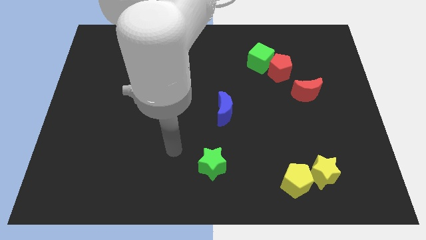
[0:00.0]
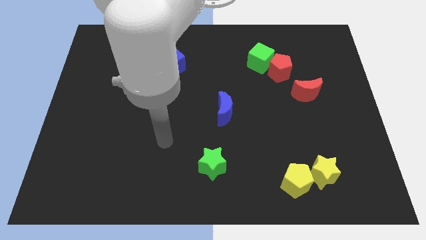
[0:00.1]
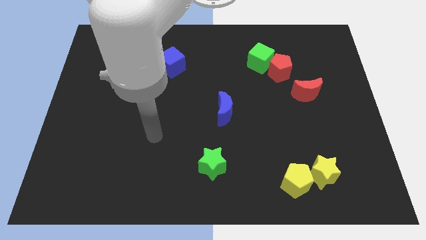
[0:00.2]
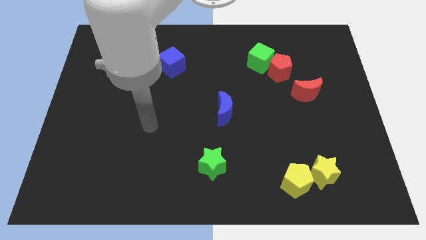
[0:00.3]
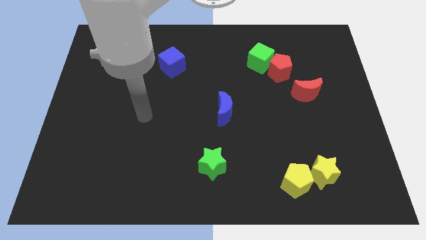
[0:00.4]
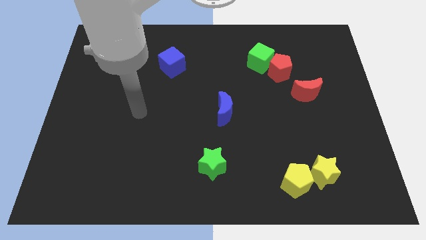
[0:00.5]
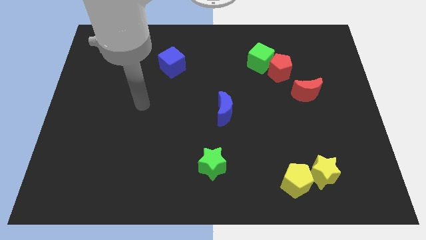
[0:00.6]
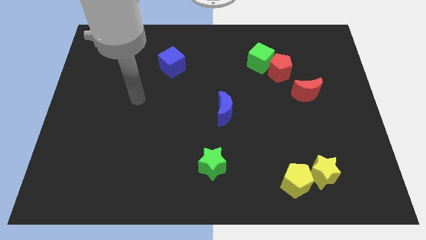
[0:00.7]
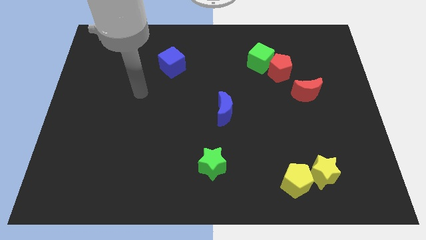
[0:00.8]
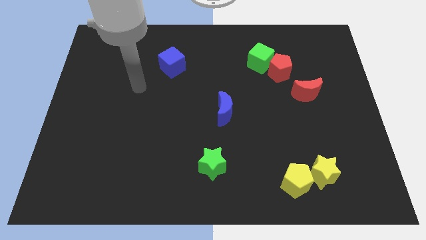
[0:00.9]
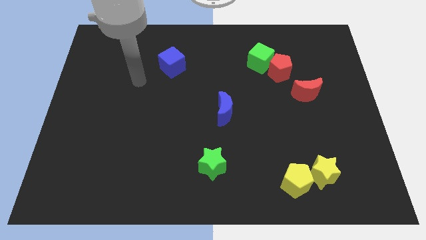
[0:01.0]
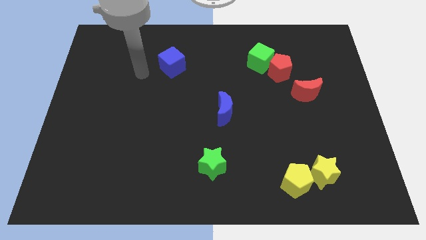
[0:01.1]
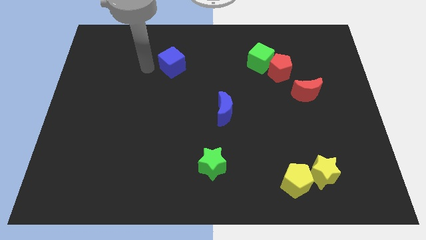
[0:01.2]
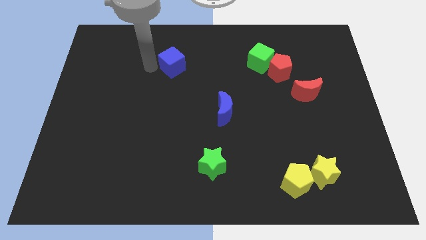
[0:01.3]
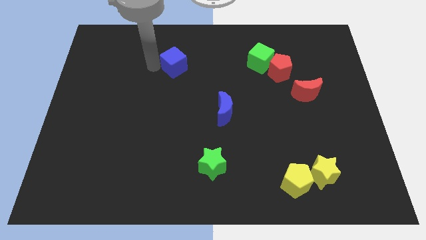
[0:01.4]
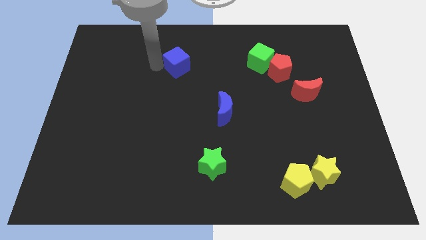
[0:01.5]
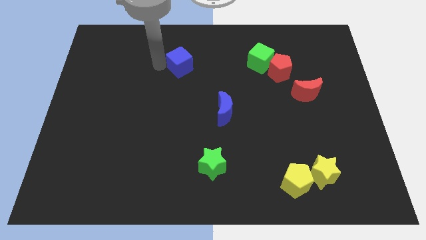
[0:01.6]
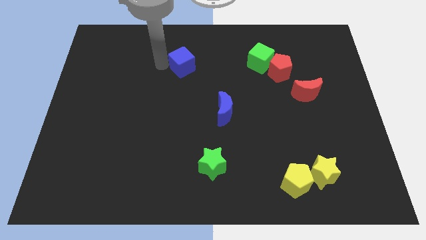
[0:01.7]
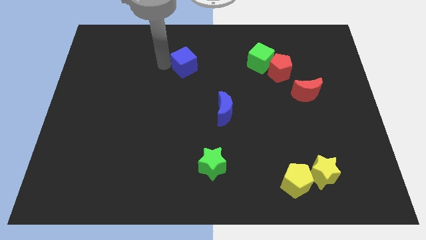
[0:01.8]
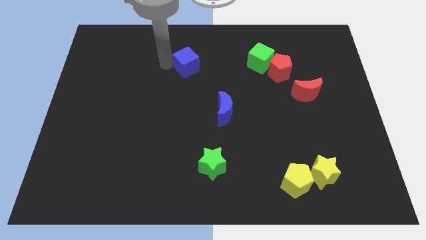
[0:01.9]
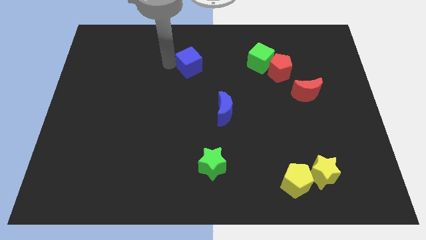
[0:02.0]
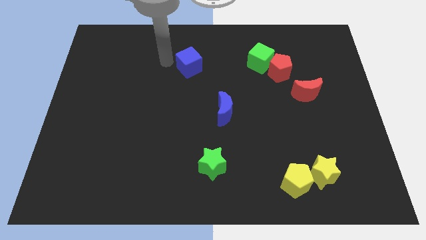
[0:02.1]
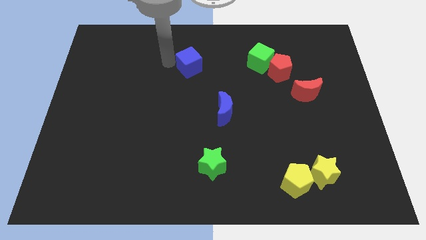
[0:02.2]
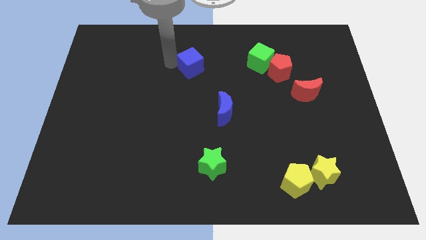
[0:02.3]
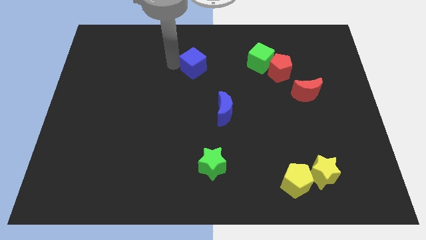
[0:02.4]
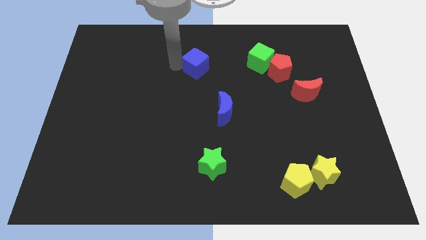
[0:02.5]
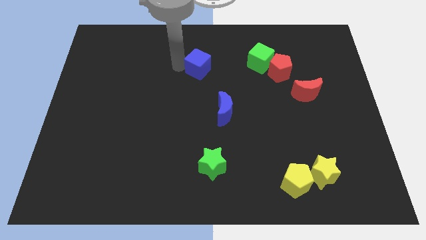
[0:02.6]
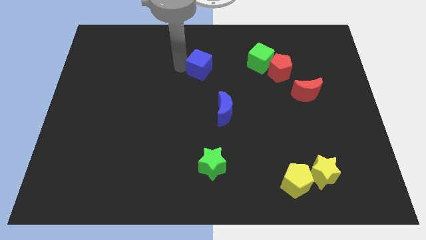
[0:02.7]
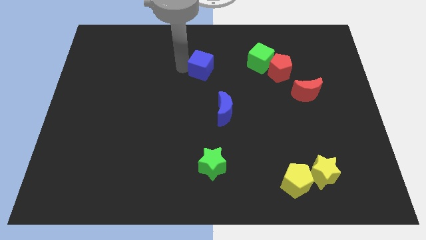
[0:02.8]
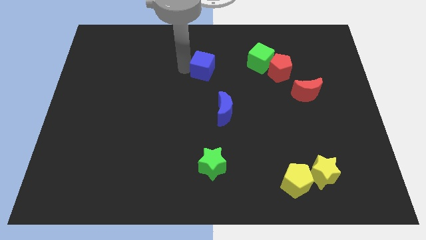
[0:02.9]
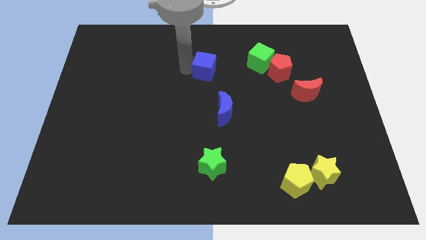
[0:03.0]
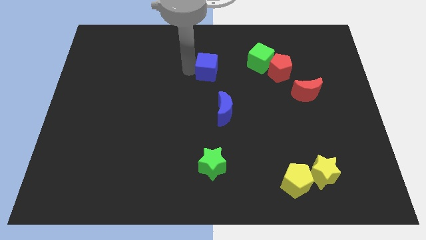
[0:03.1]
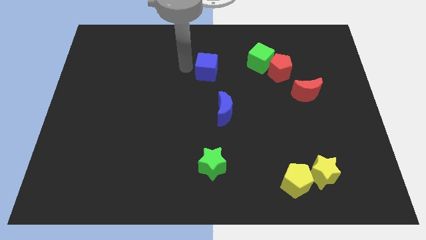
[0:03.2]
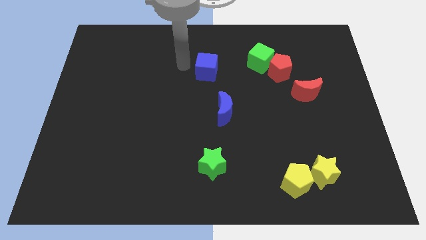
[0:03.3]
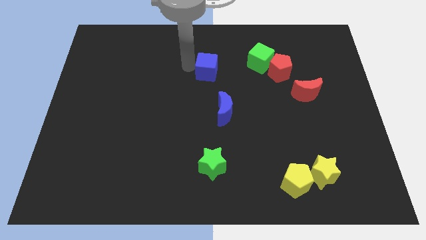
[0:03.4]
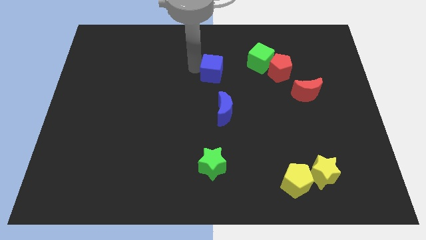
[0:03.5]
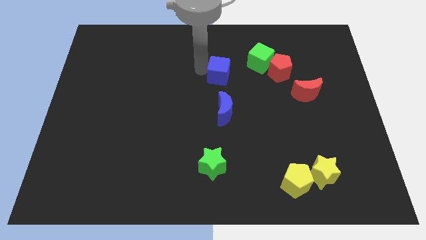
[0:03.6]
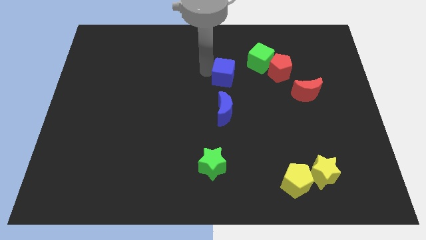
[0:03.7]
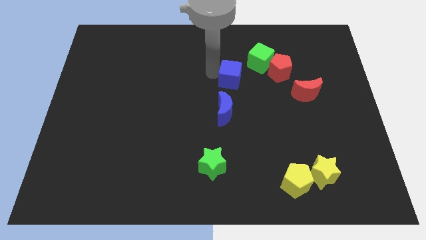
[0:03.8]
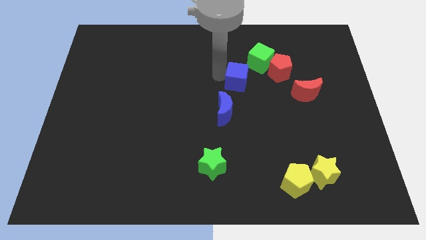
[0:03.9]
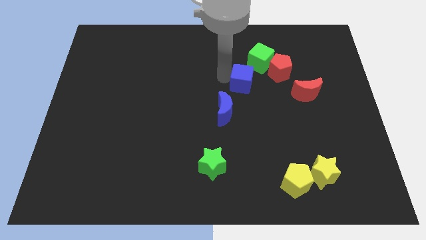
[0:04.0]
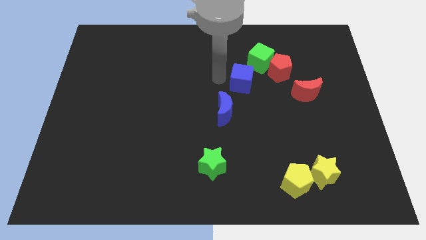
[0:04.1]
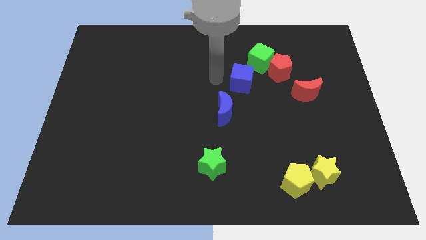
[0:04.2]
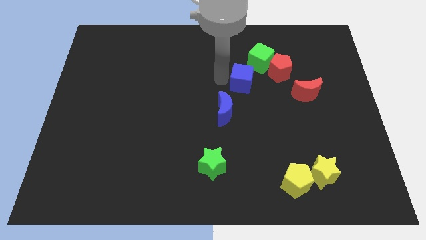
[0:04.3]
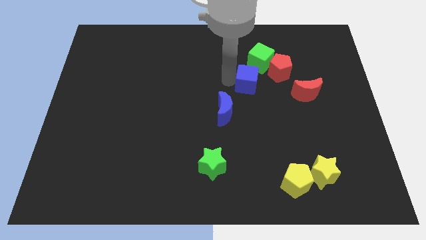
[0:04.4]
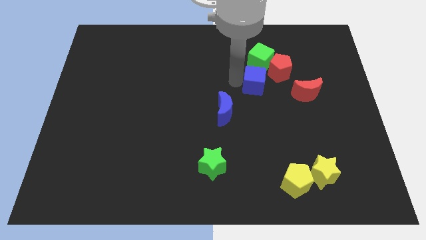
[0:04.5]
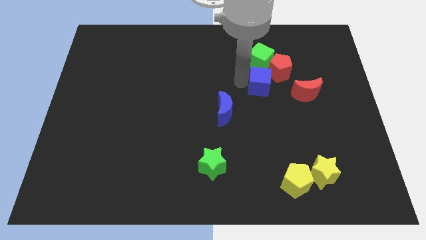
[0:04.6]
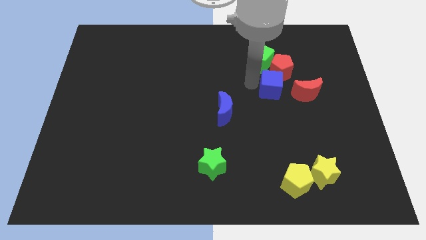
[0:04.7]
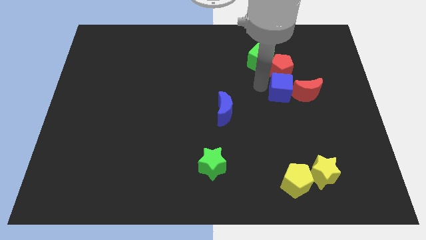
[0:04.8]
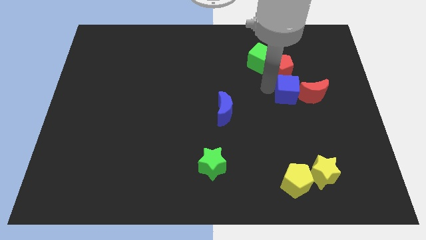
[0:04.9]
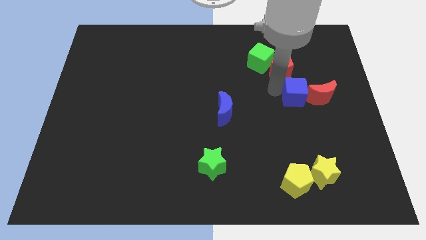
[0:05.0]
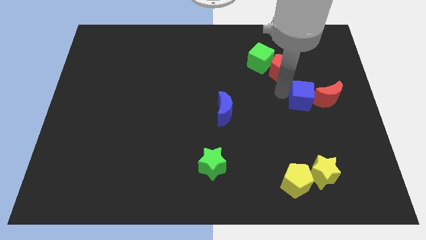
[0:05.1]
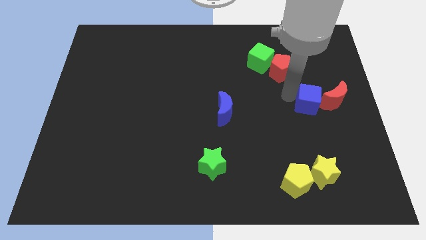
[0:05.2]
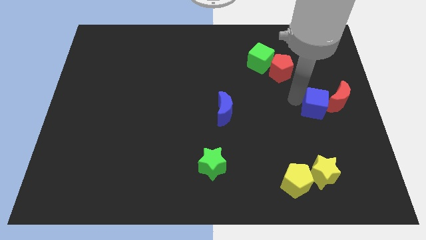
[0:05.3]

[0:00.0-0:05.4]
put the blue cube next to the red moon

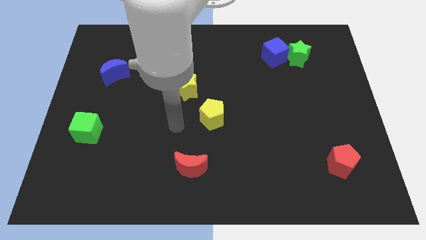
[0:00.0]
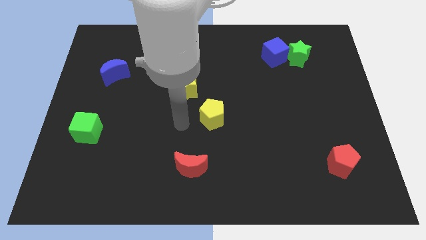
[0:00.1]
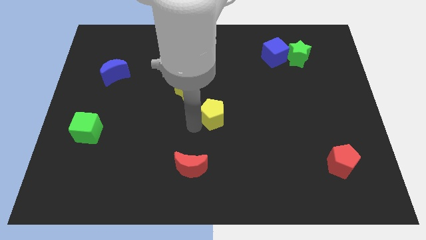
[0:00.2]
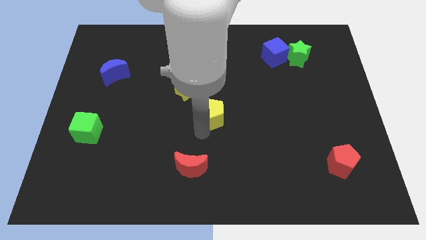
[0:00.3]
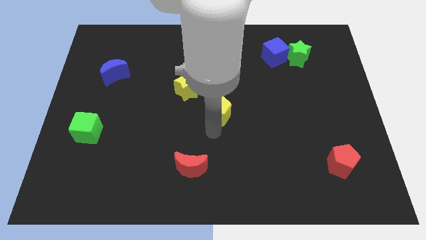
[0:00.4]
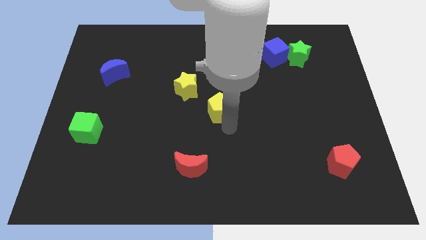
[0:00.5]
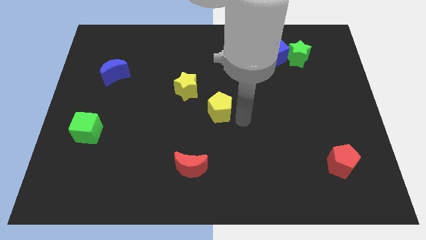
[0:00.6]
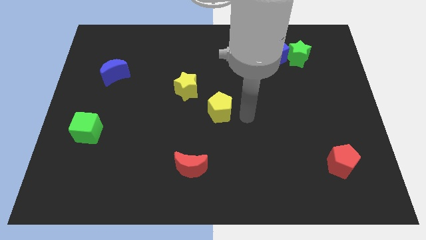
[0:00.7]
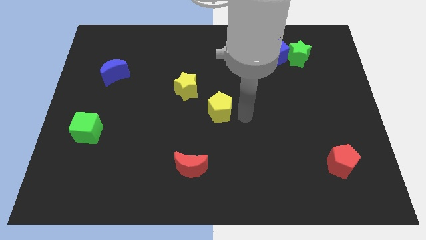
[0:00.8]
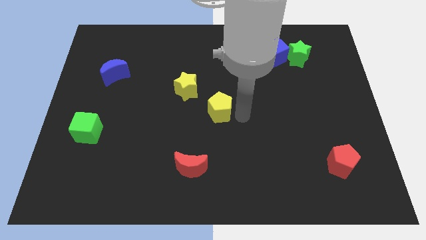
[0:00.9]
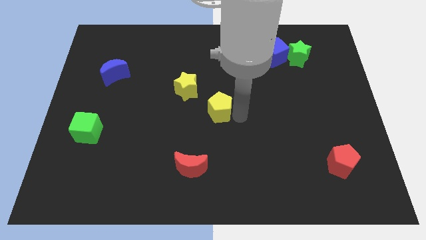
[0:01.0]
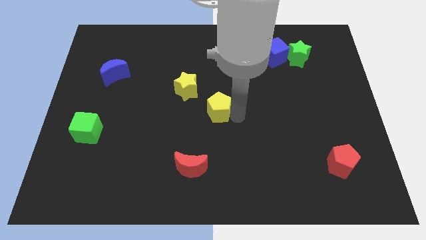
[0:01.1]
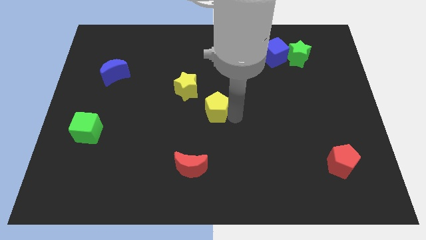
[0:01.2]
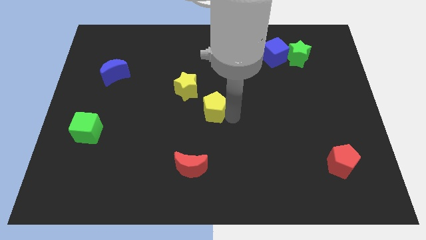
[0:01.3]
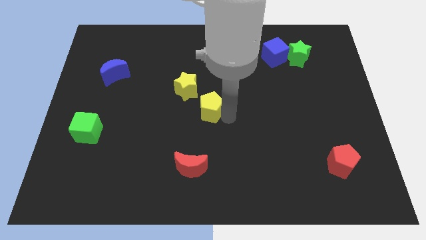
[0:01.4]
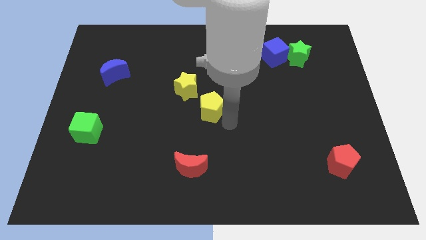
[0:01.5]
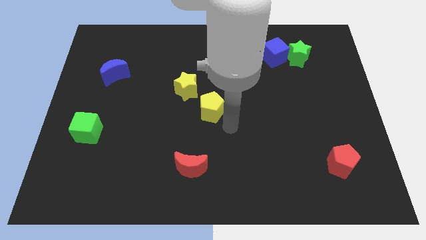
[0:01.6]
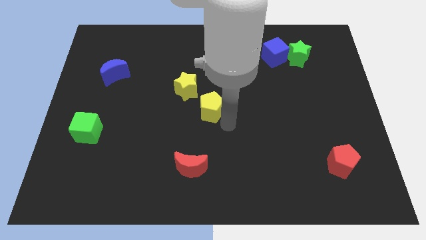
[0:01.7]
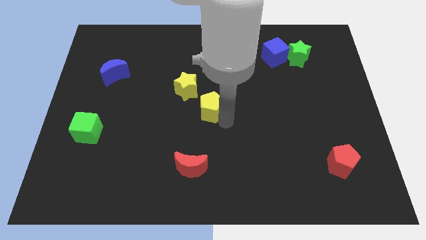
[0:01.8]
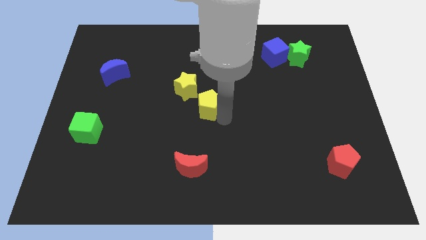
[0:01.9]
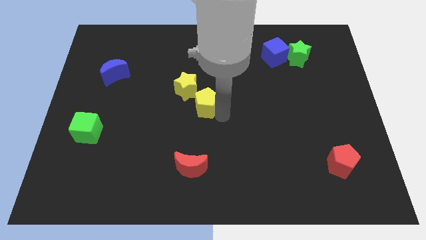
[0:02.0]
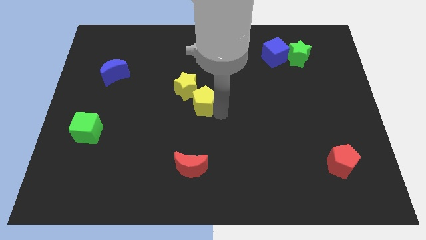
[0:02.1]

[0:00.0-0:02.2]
move the yellow pentagon next to the yellow star

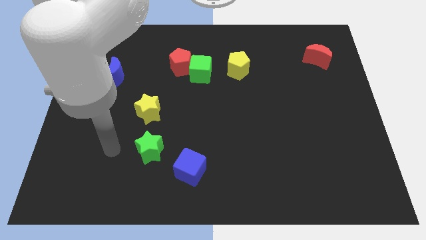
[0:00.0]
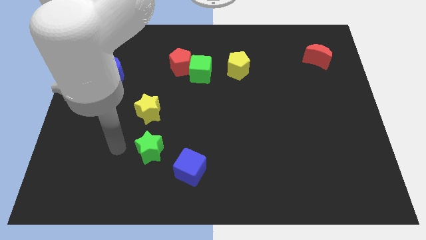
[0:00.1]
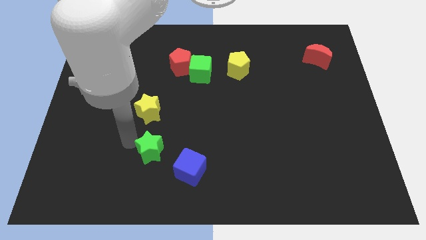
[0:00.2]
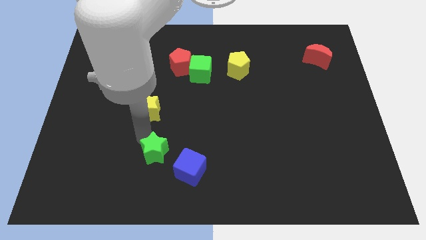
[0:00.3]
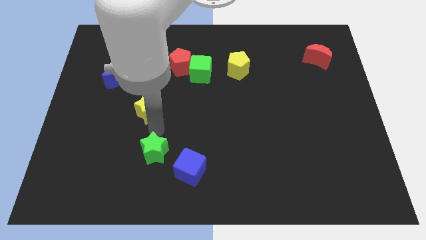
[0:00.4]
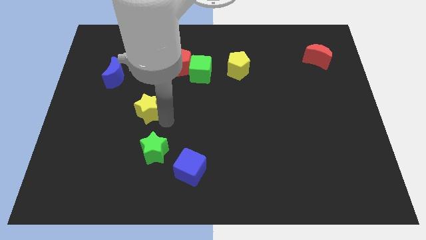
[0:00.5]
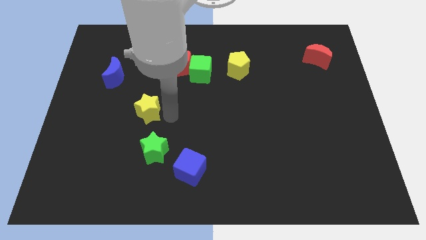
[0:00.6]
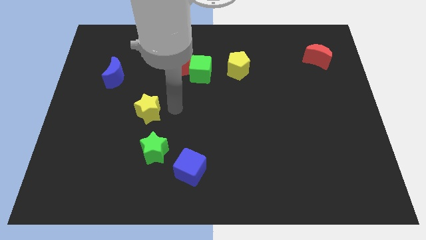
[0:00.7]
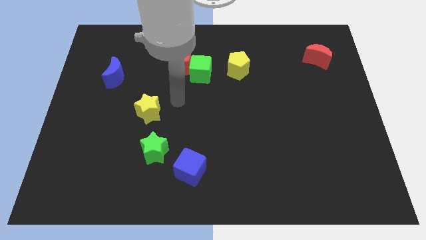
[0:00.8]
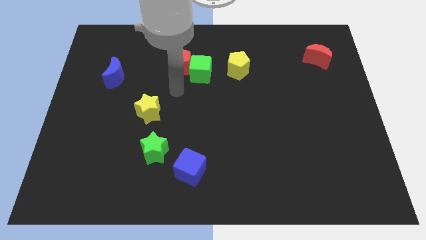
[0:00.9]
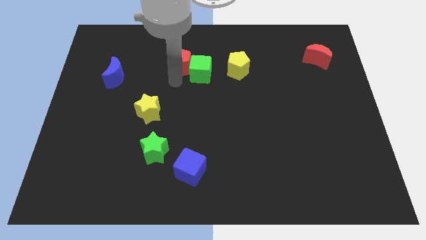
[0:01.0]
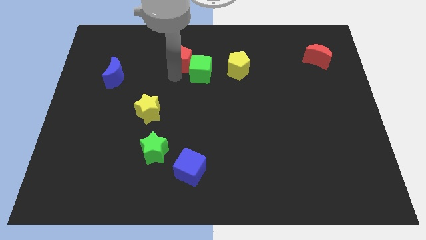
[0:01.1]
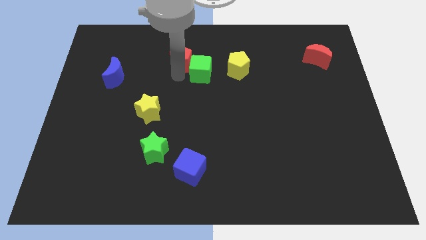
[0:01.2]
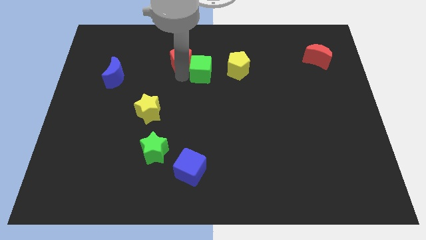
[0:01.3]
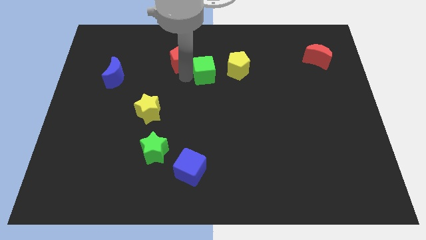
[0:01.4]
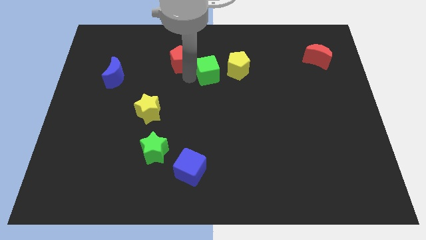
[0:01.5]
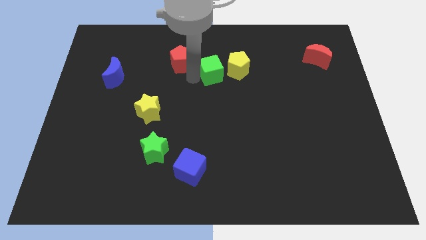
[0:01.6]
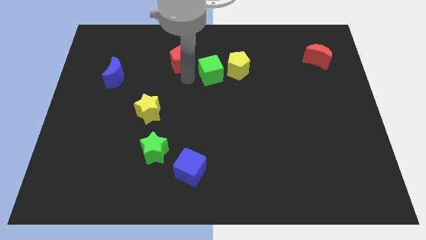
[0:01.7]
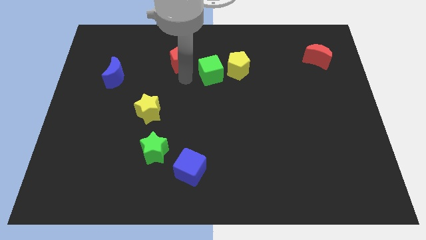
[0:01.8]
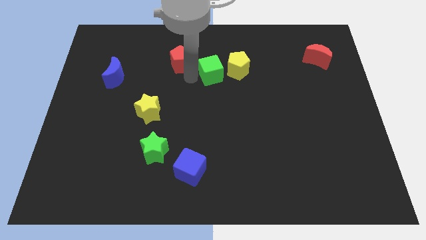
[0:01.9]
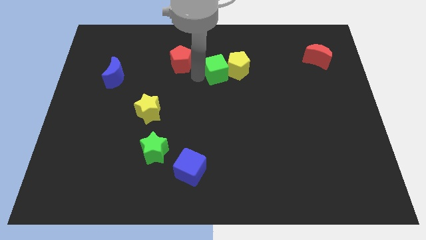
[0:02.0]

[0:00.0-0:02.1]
push the green cube close to the yellow pentagon
